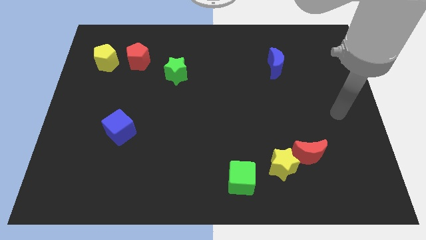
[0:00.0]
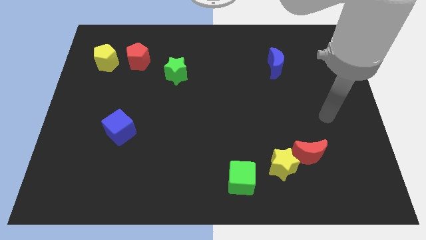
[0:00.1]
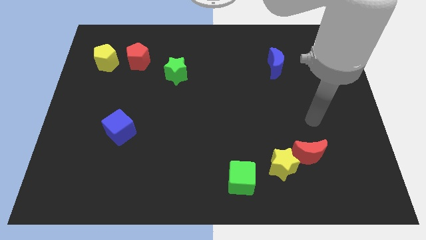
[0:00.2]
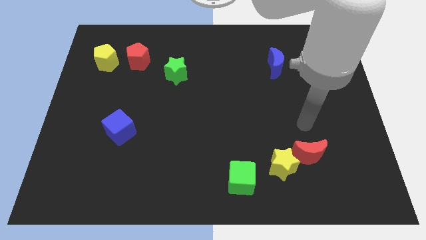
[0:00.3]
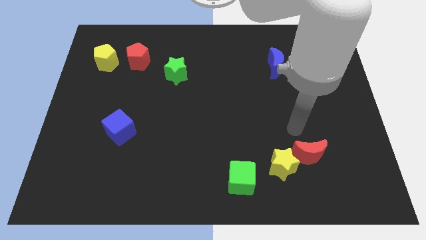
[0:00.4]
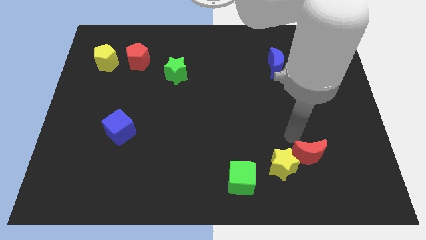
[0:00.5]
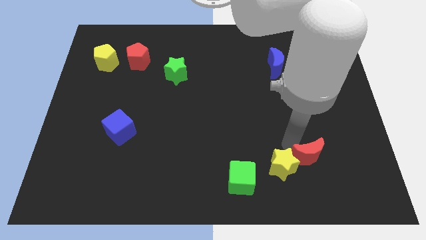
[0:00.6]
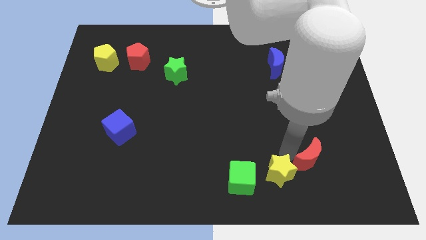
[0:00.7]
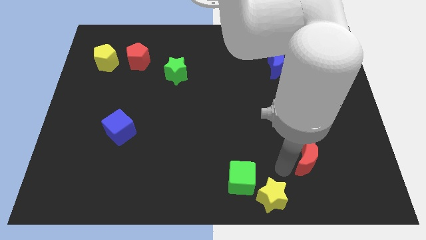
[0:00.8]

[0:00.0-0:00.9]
move the red moon away from the yellow star

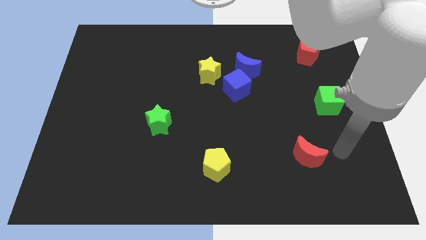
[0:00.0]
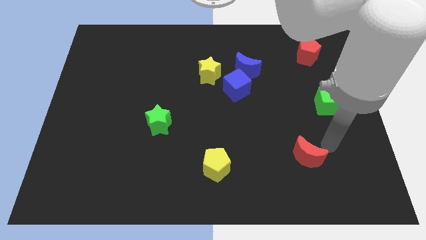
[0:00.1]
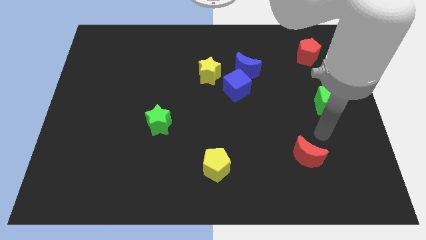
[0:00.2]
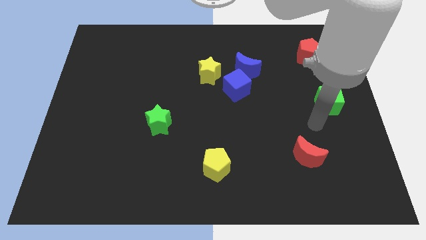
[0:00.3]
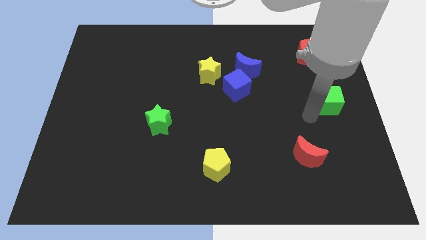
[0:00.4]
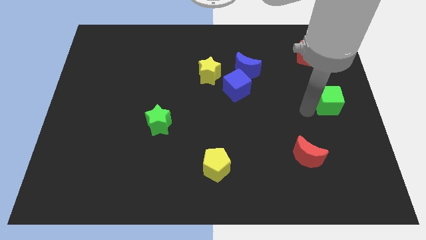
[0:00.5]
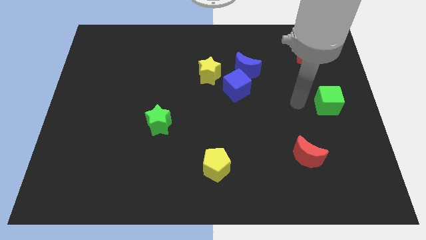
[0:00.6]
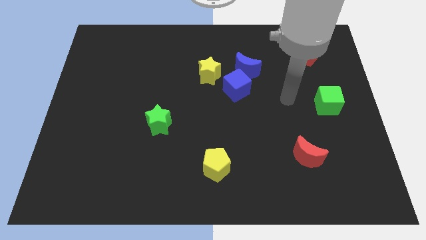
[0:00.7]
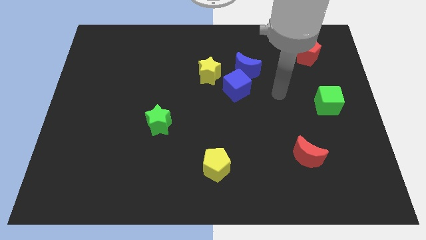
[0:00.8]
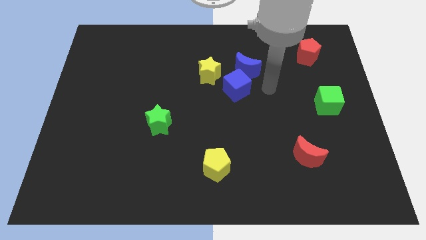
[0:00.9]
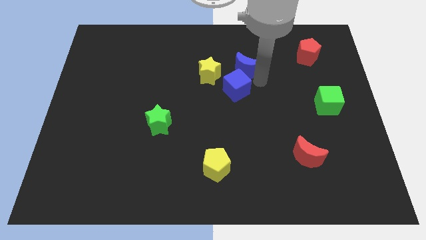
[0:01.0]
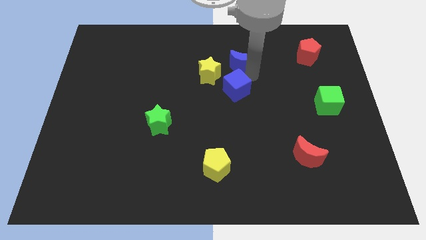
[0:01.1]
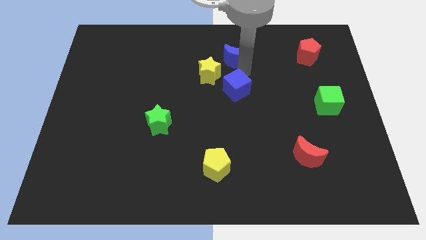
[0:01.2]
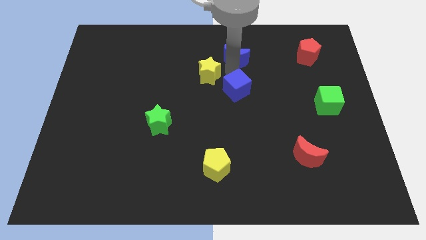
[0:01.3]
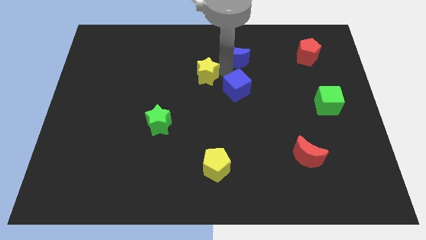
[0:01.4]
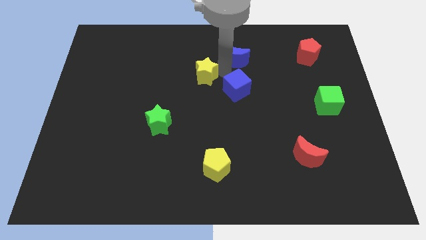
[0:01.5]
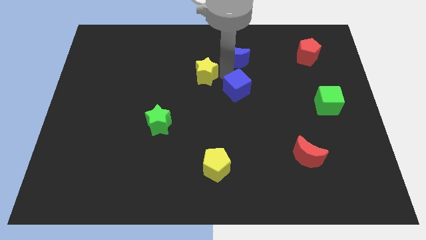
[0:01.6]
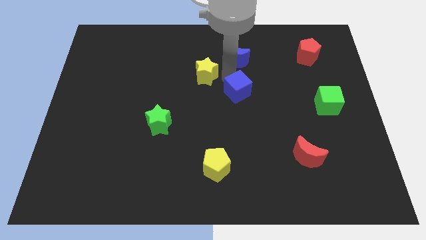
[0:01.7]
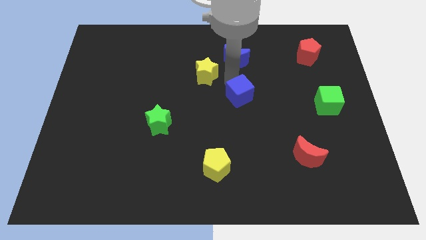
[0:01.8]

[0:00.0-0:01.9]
move the blue cube away from the blue moon and yellow star

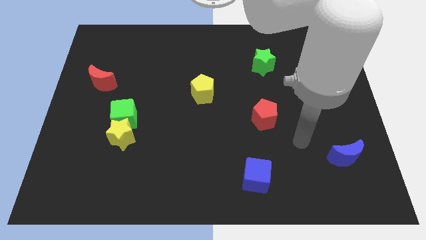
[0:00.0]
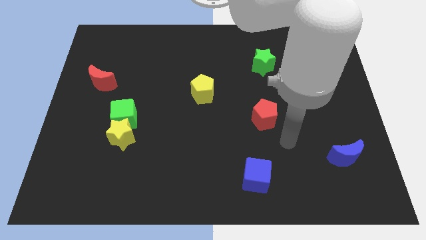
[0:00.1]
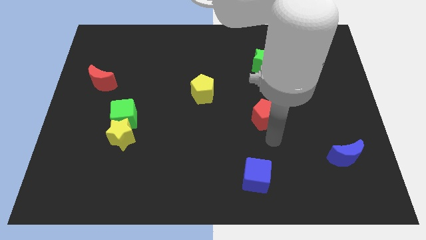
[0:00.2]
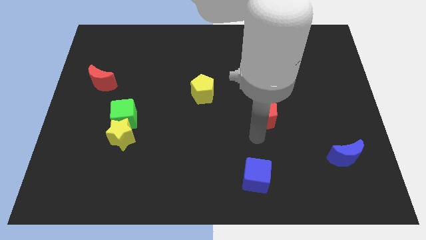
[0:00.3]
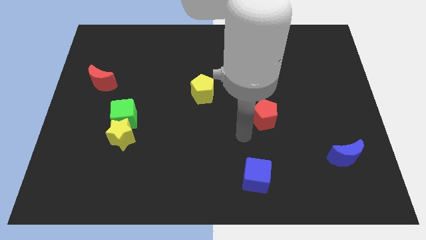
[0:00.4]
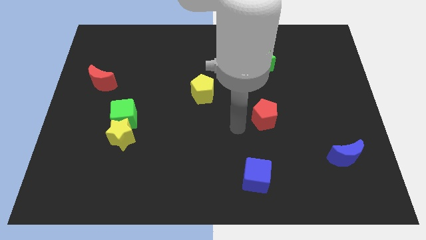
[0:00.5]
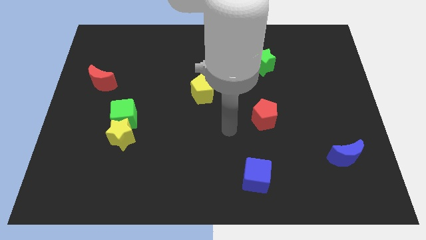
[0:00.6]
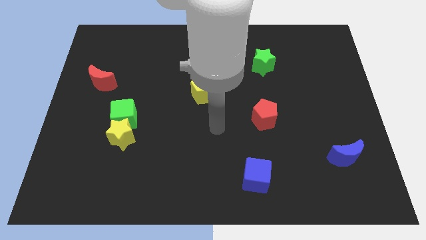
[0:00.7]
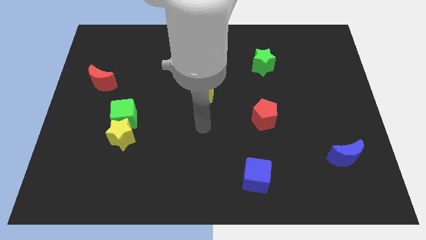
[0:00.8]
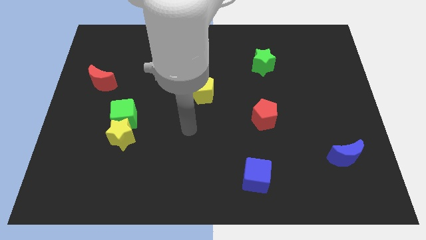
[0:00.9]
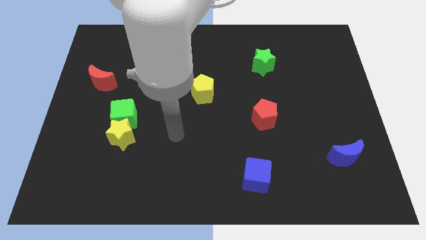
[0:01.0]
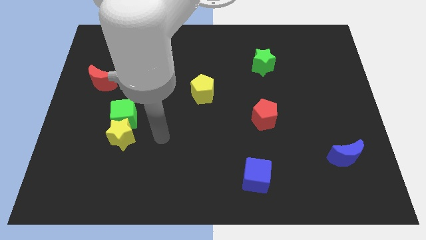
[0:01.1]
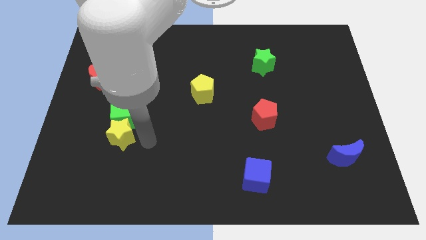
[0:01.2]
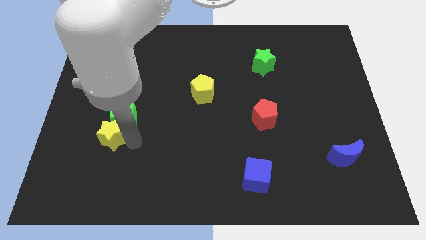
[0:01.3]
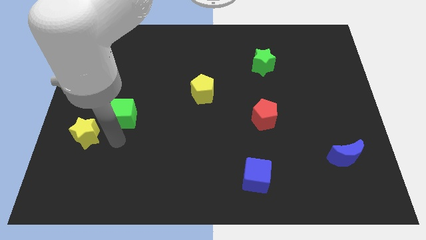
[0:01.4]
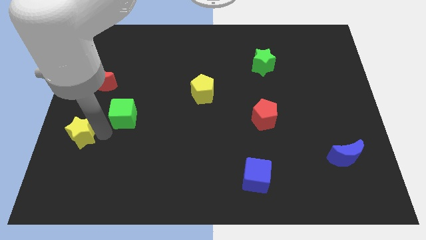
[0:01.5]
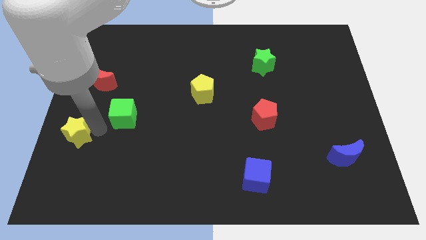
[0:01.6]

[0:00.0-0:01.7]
move the green cube away from the yellow star

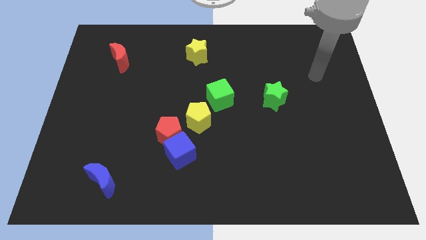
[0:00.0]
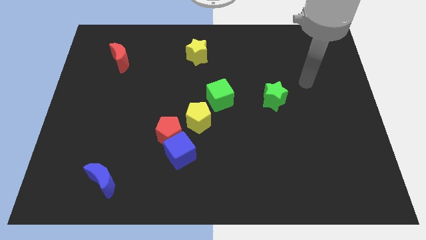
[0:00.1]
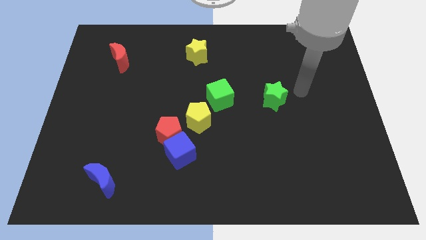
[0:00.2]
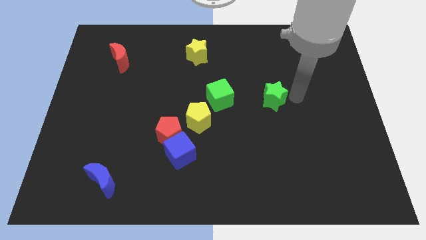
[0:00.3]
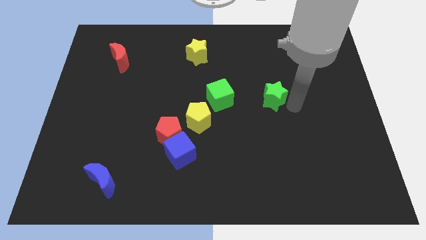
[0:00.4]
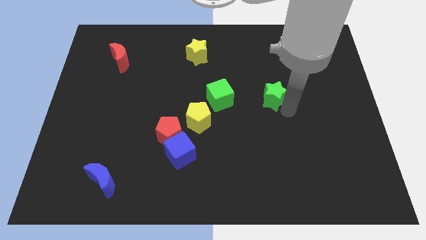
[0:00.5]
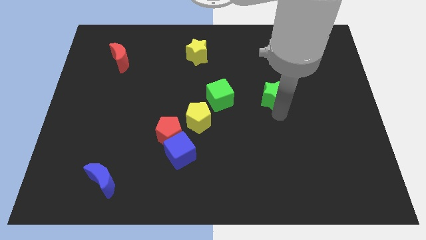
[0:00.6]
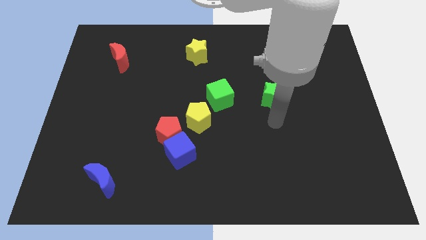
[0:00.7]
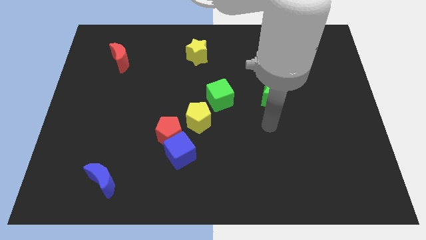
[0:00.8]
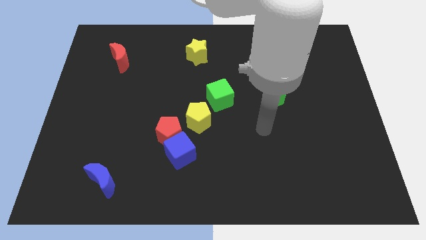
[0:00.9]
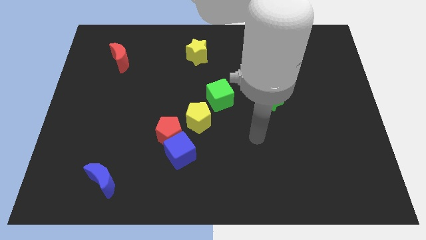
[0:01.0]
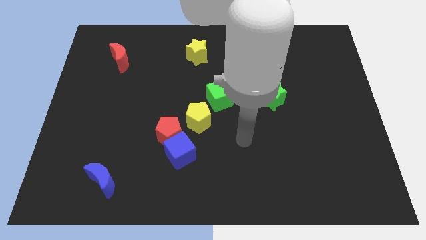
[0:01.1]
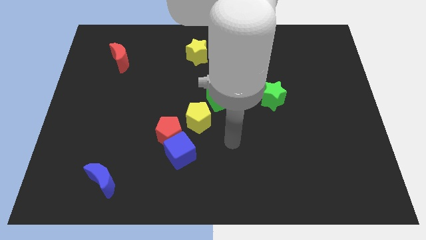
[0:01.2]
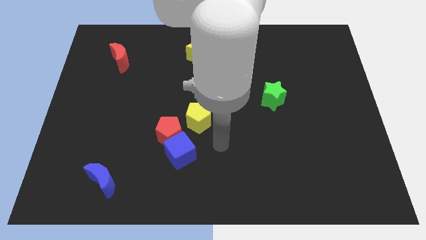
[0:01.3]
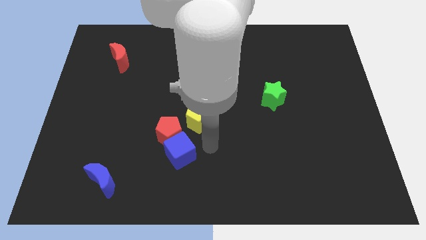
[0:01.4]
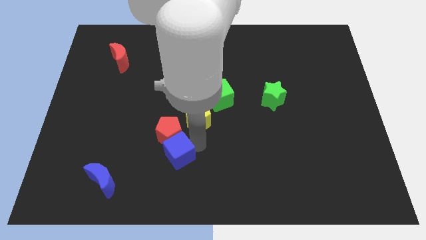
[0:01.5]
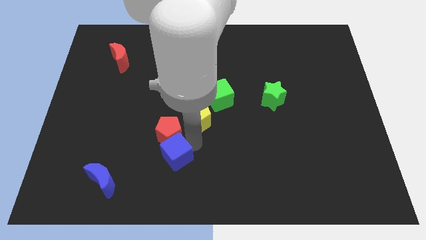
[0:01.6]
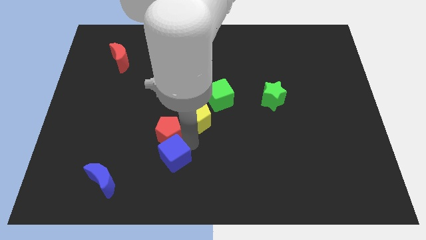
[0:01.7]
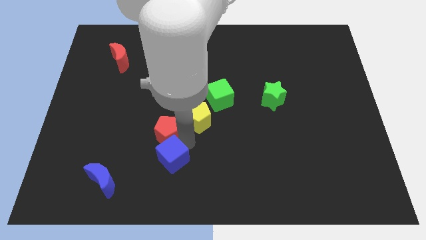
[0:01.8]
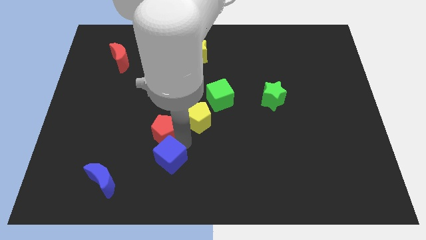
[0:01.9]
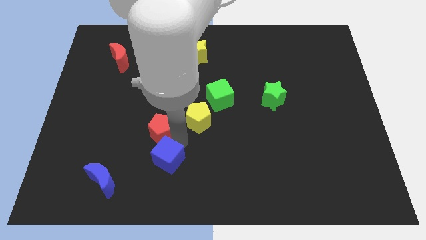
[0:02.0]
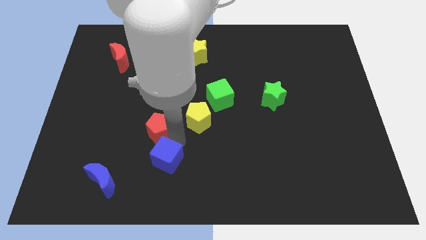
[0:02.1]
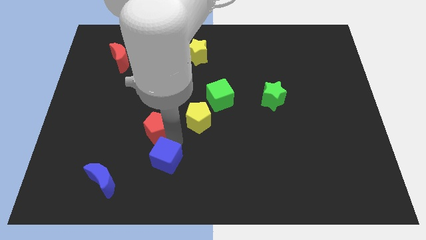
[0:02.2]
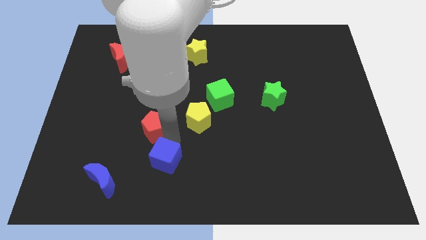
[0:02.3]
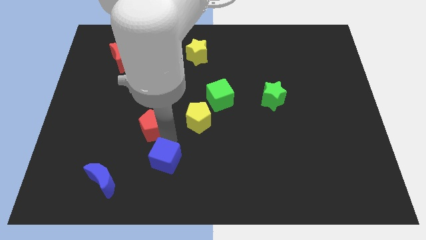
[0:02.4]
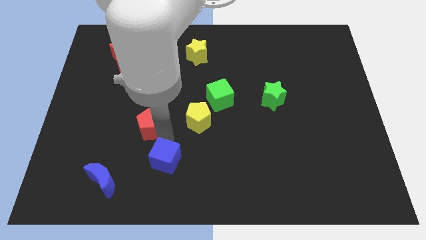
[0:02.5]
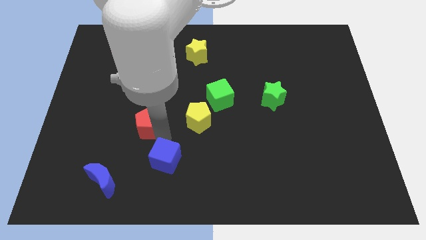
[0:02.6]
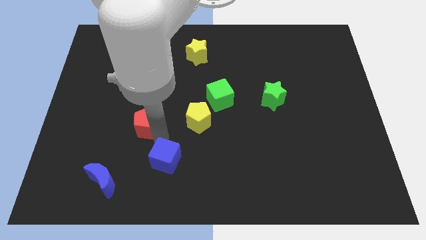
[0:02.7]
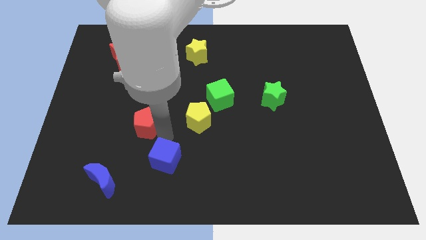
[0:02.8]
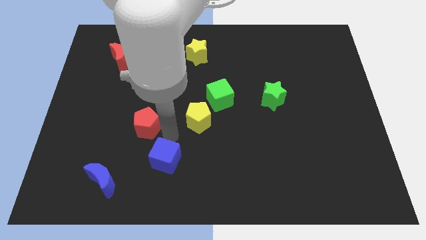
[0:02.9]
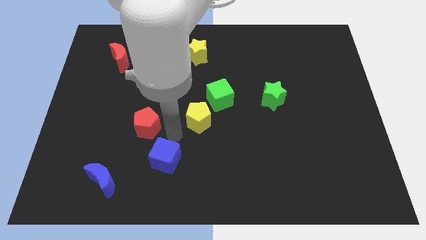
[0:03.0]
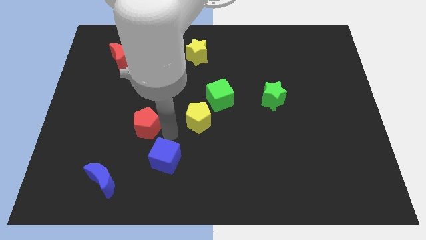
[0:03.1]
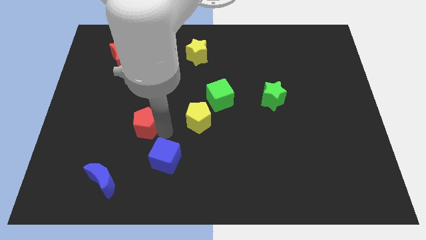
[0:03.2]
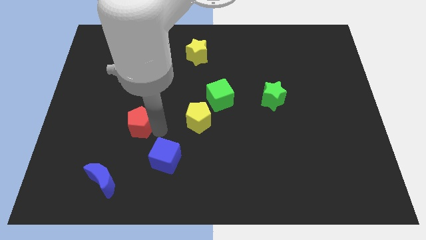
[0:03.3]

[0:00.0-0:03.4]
move the red pentagon away from the blue cube and yellow pentagon

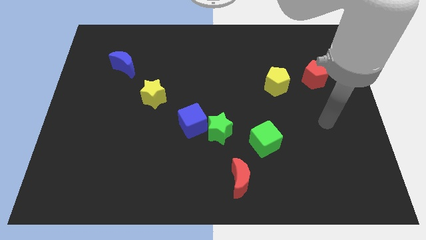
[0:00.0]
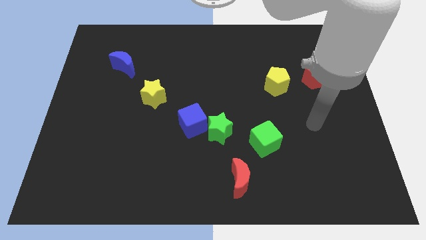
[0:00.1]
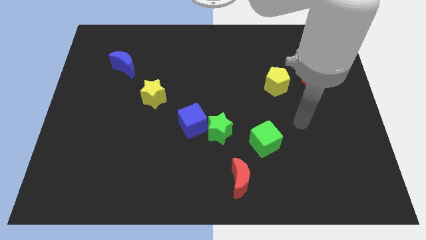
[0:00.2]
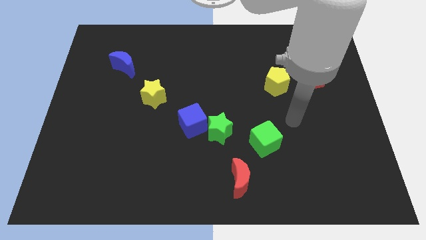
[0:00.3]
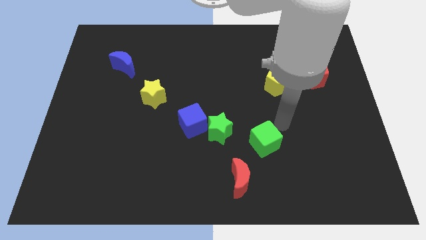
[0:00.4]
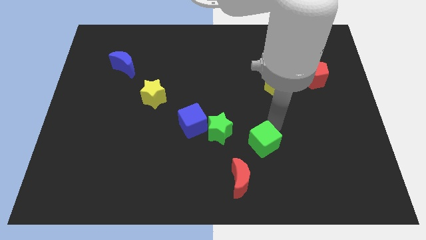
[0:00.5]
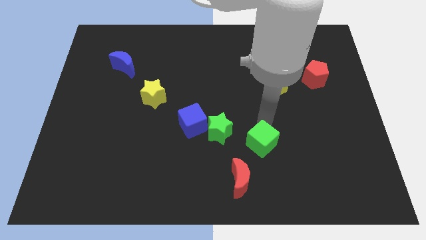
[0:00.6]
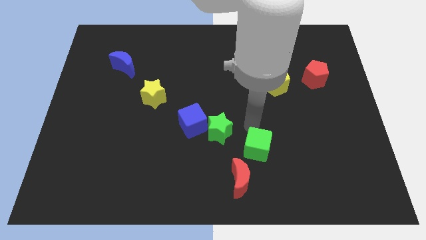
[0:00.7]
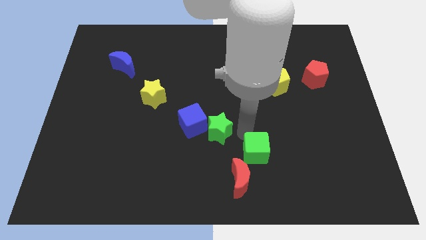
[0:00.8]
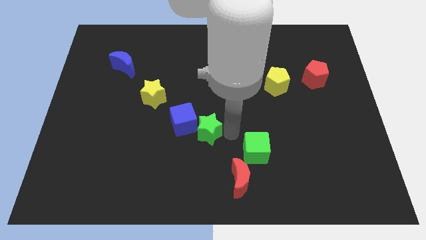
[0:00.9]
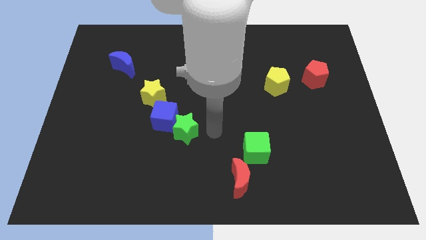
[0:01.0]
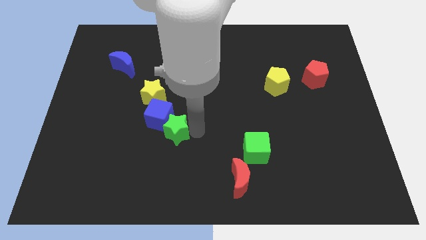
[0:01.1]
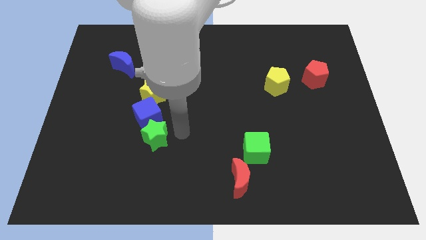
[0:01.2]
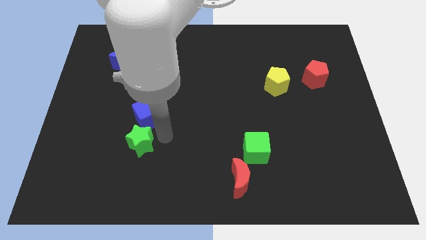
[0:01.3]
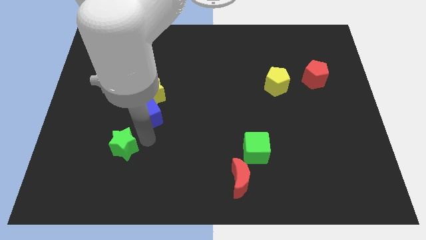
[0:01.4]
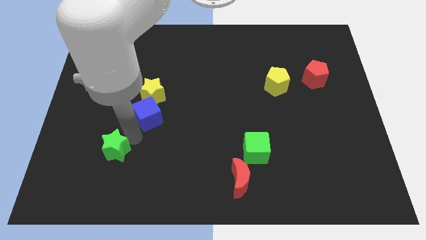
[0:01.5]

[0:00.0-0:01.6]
move the blue cube away from the green star
